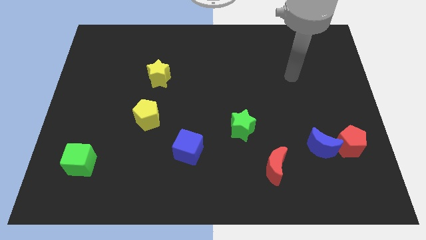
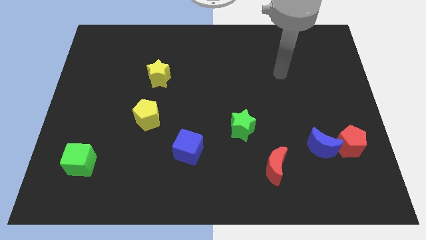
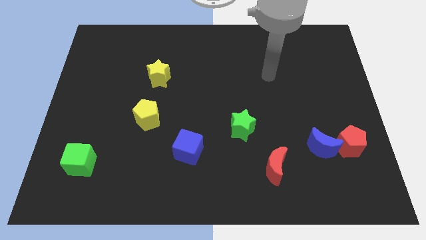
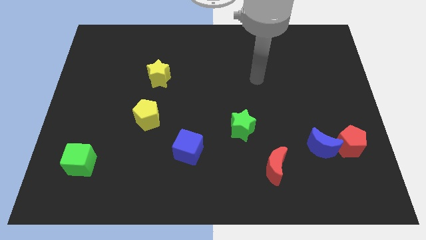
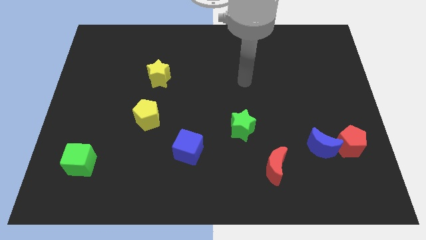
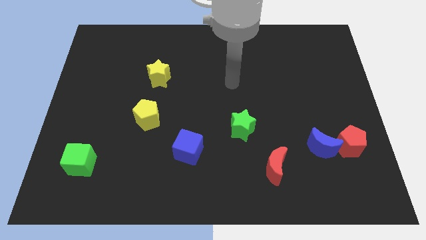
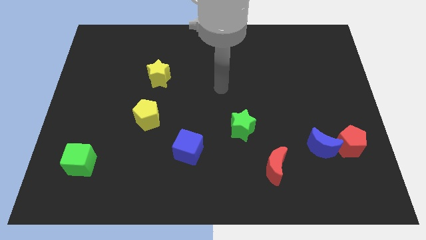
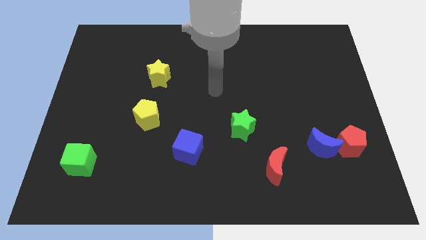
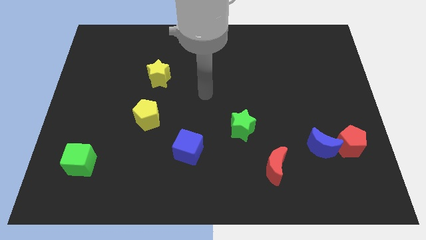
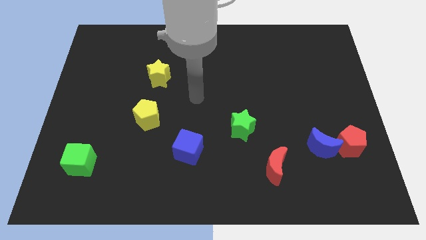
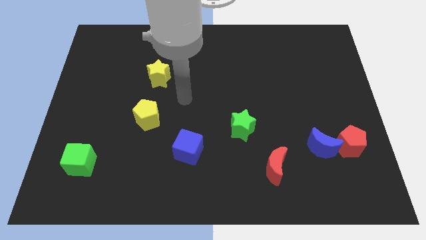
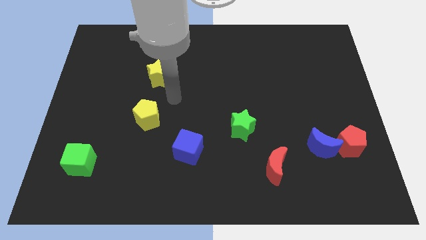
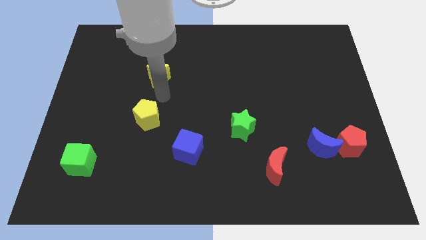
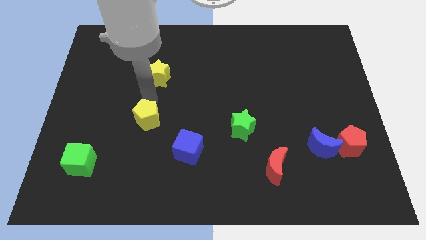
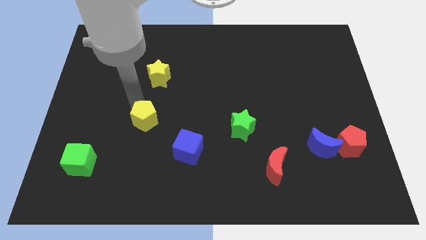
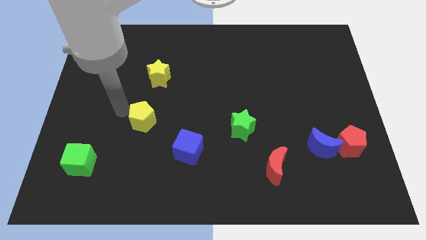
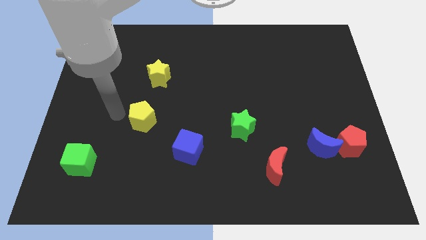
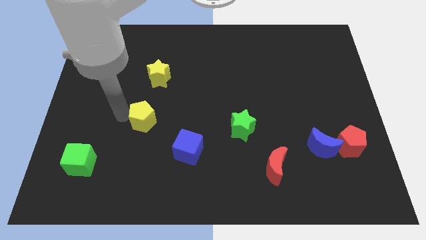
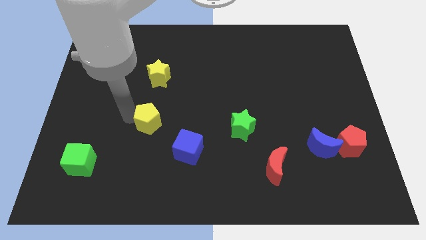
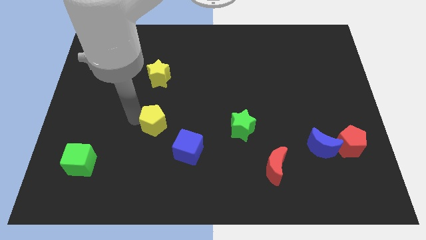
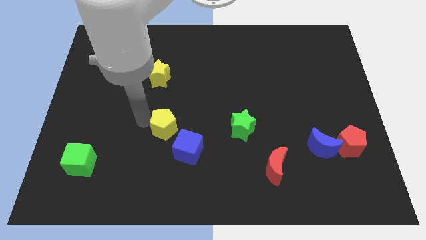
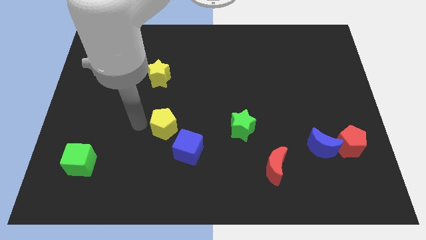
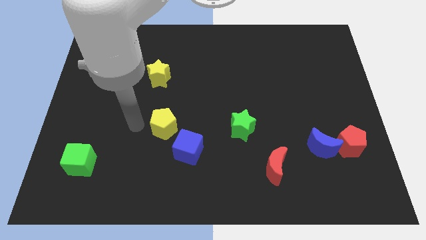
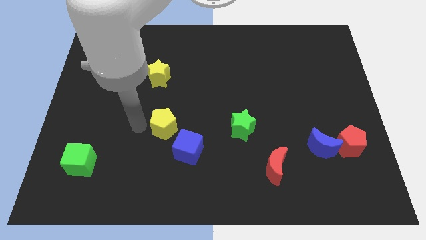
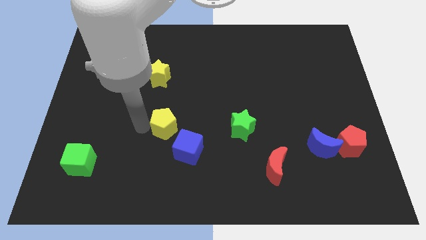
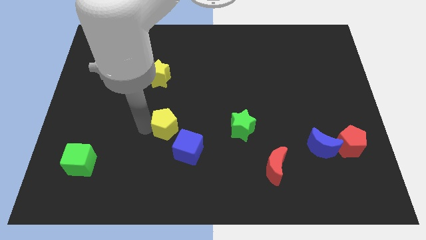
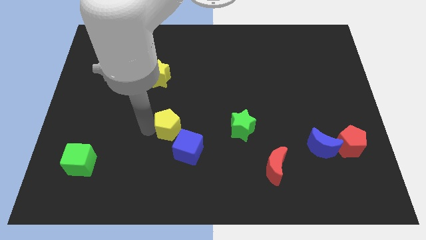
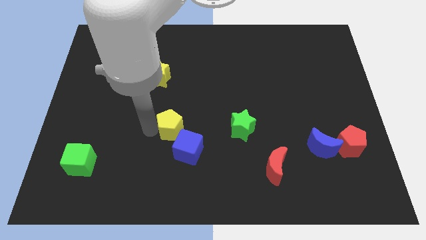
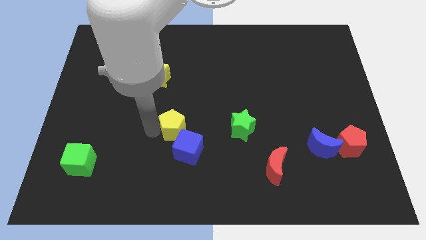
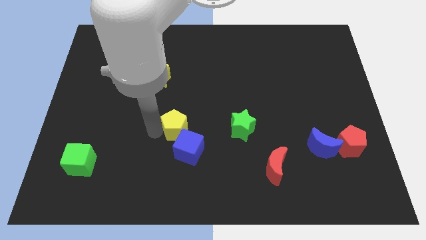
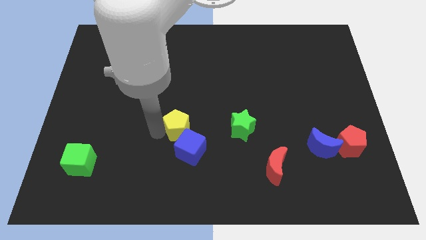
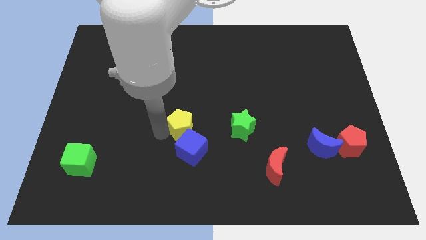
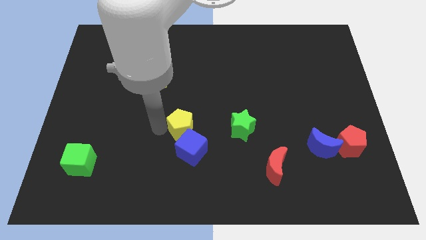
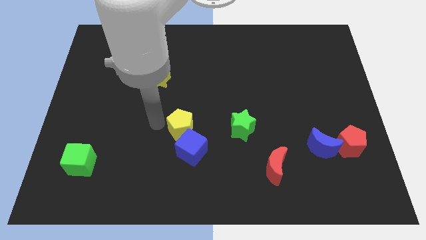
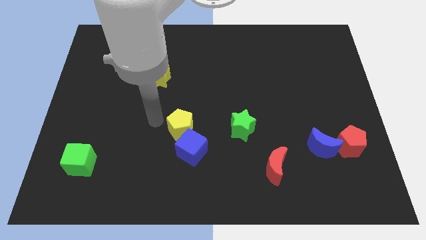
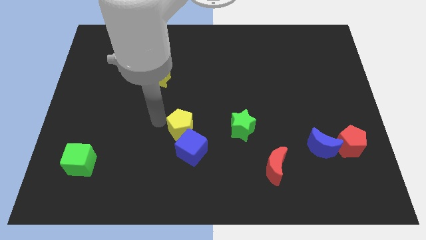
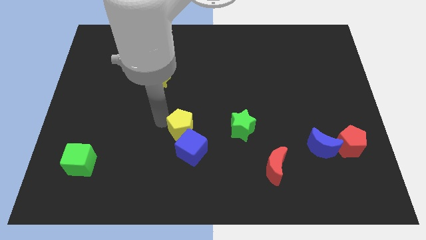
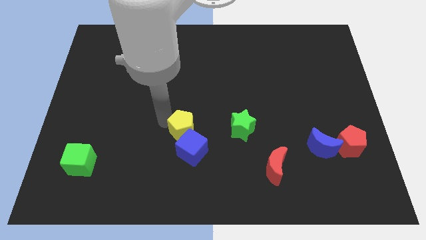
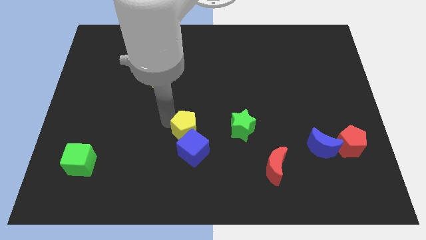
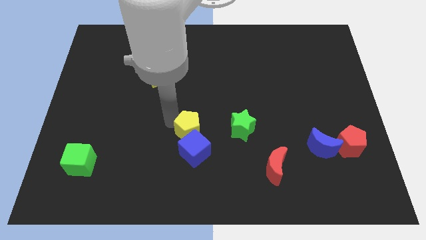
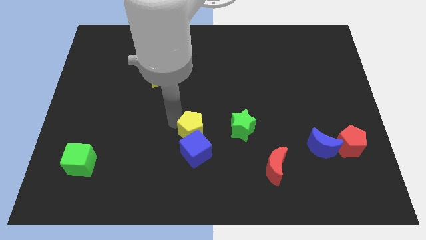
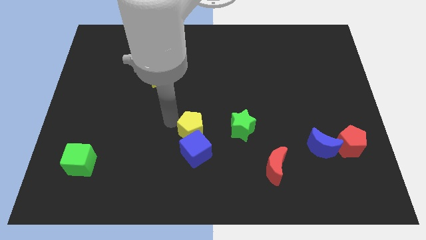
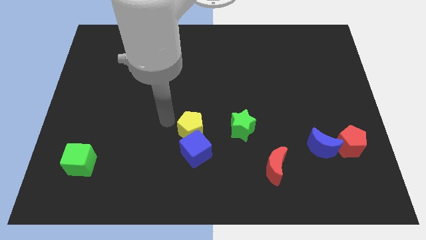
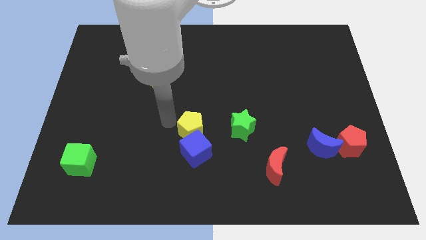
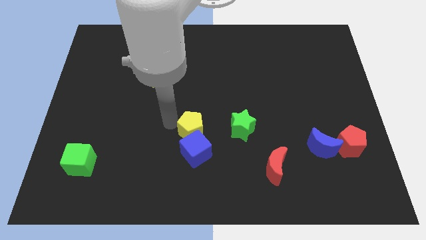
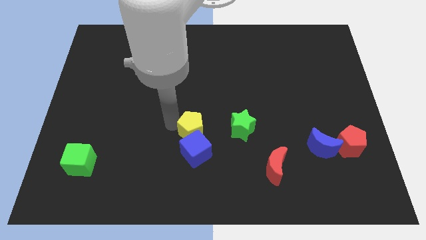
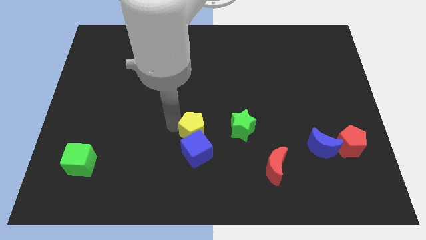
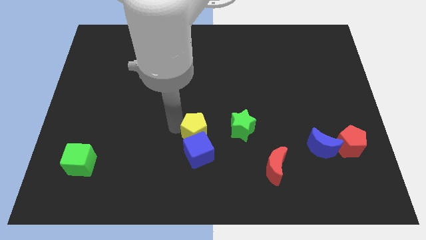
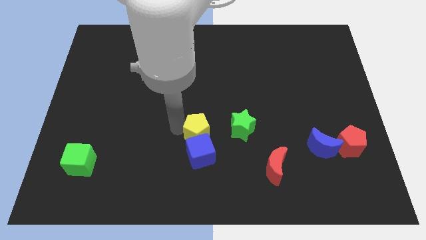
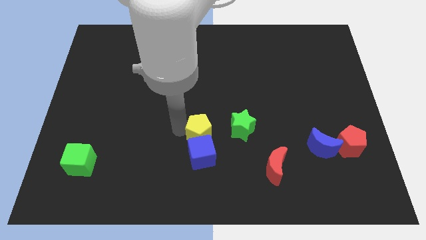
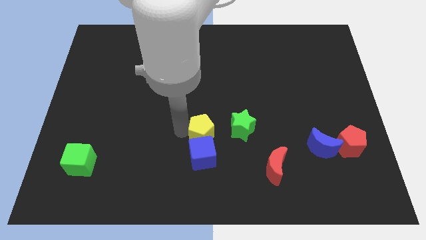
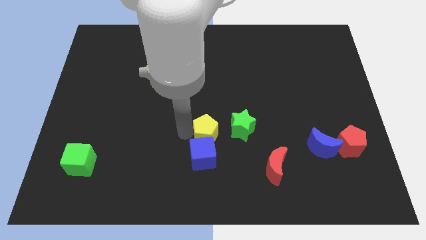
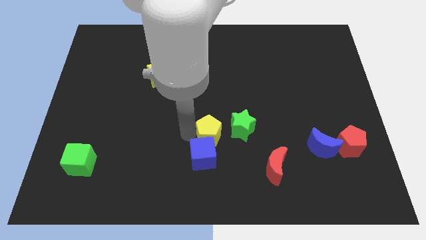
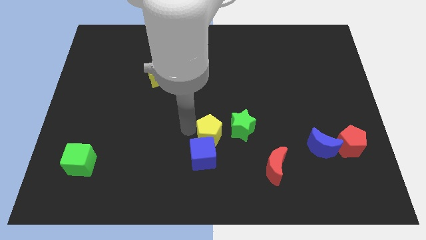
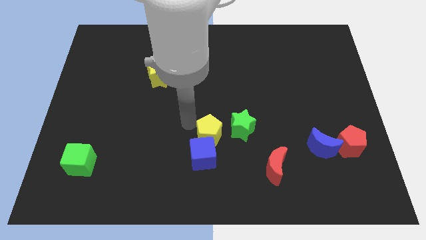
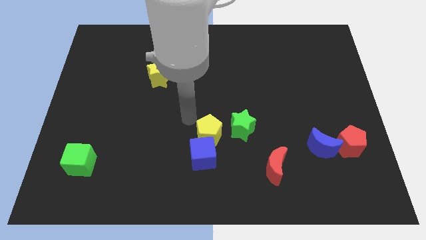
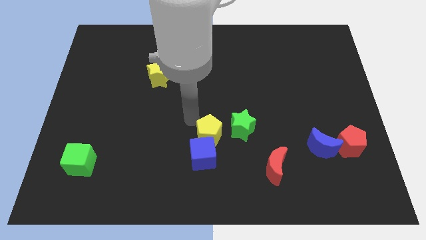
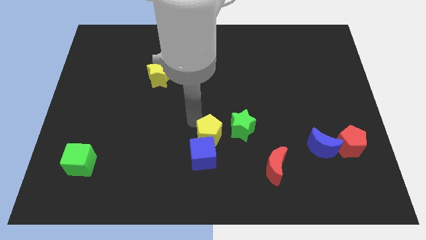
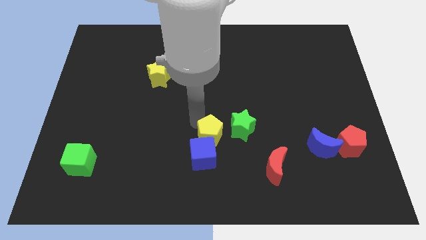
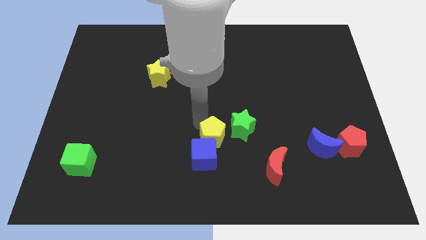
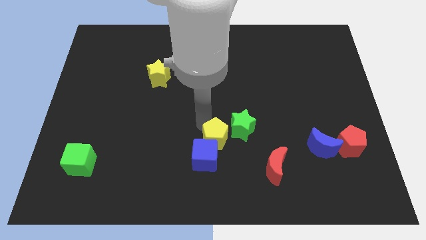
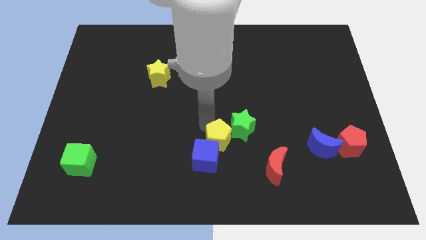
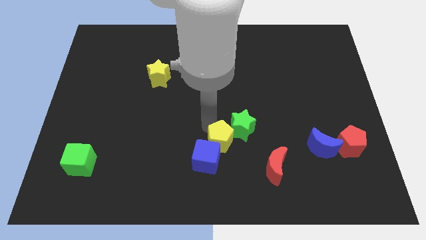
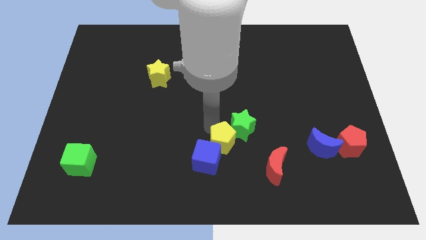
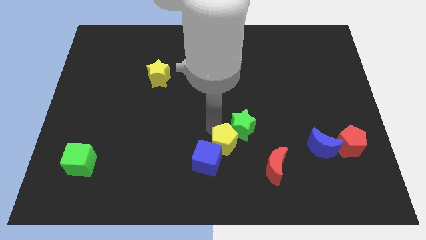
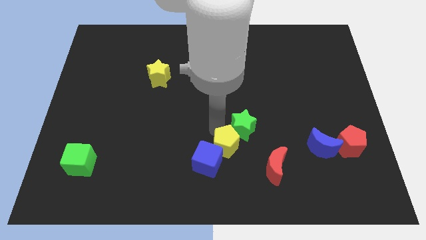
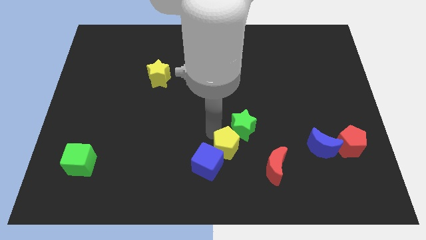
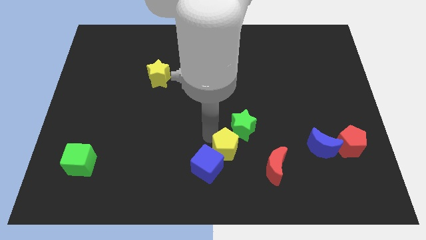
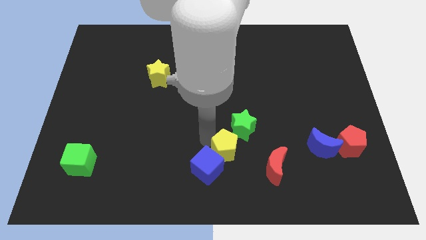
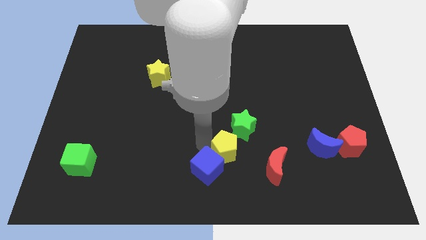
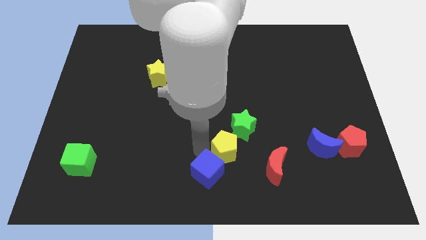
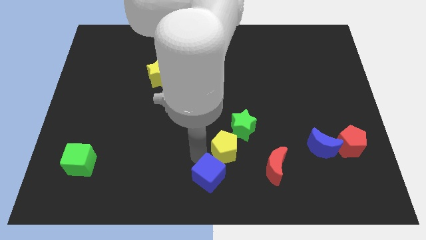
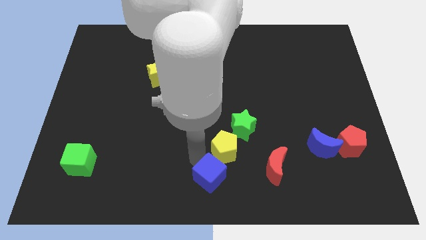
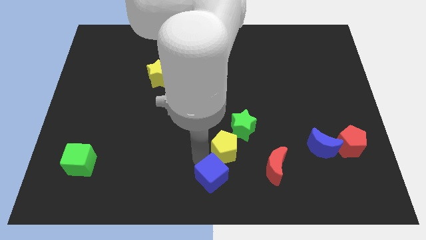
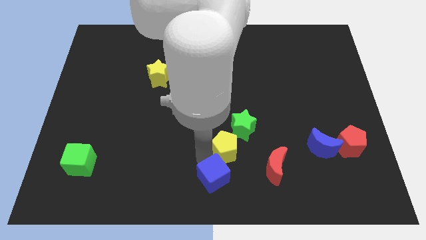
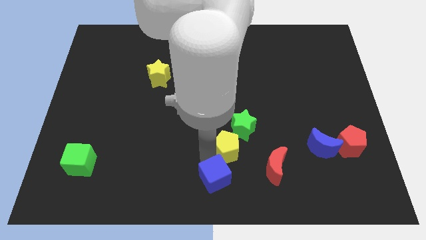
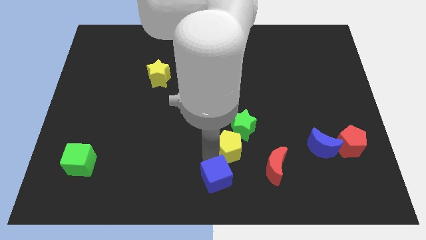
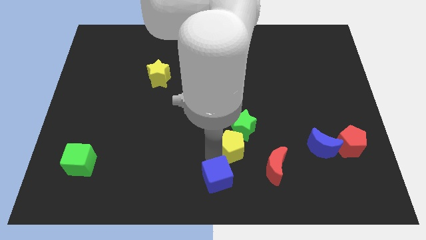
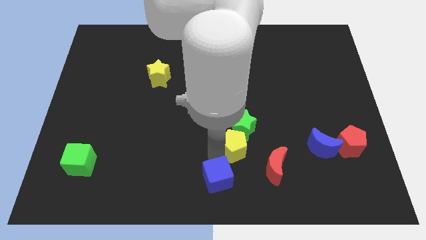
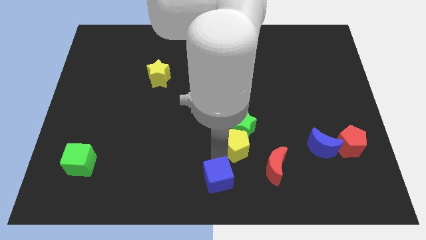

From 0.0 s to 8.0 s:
put the yellow pentagon to the bottom right side of the green star
